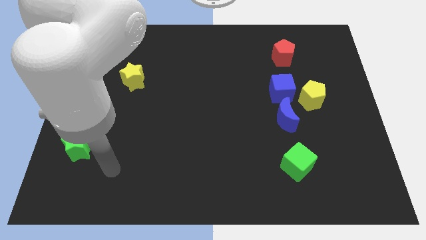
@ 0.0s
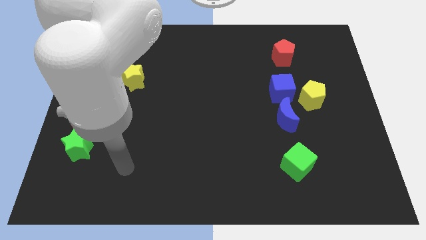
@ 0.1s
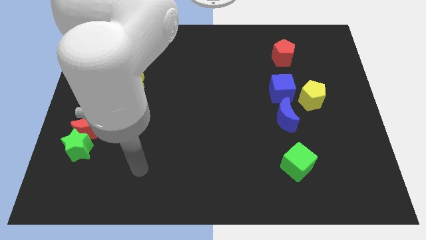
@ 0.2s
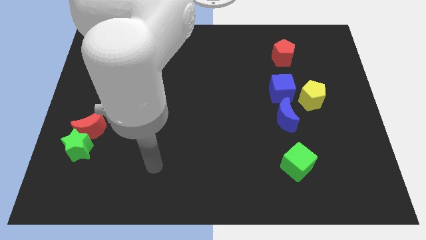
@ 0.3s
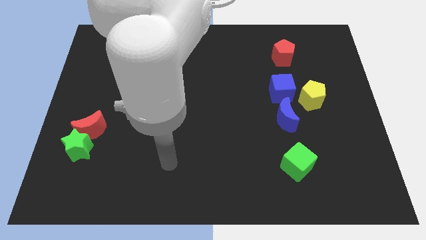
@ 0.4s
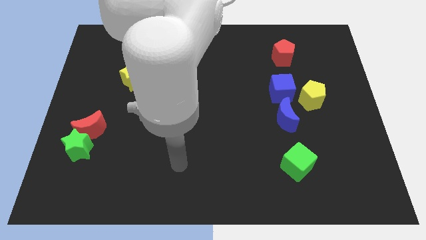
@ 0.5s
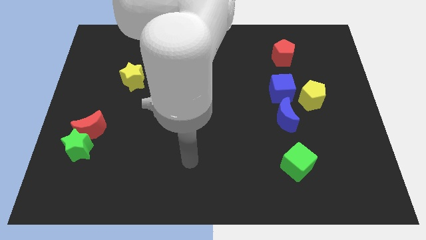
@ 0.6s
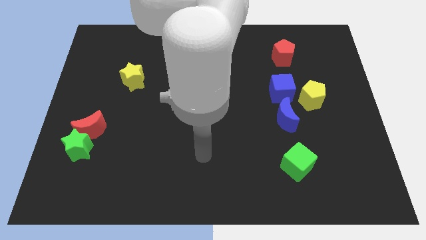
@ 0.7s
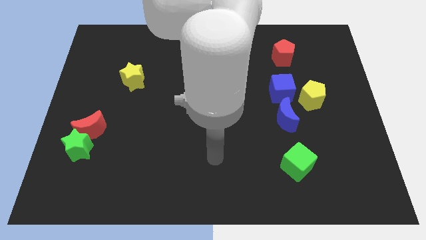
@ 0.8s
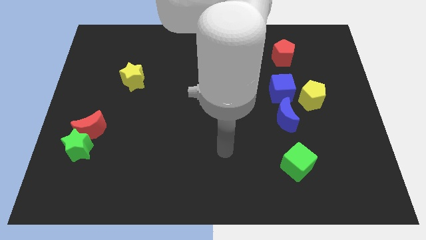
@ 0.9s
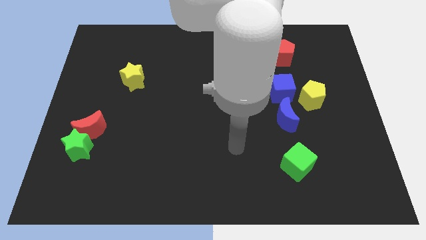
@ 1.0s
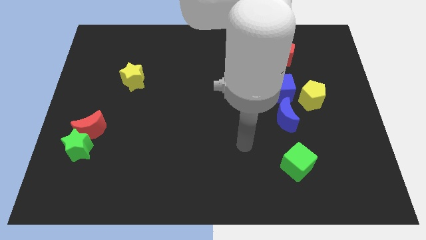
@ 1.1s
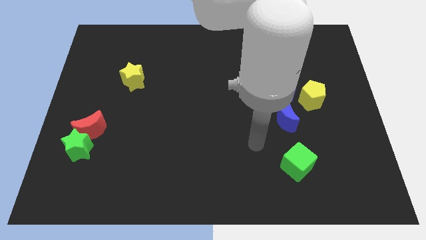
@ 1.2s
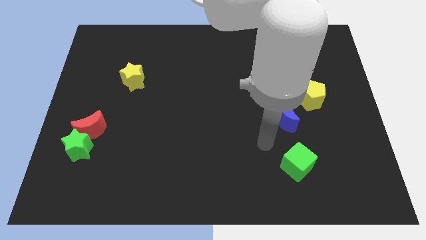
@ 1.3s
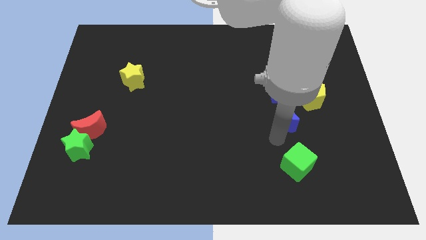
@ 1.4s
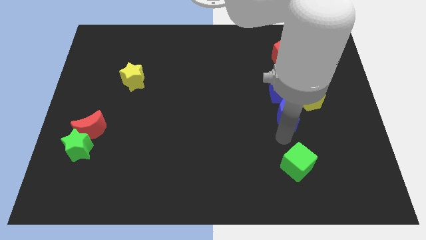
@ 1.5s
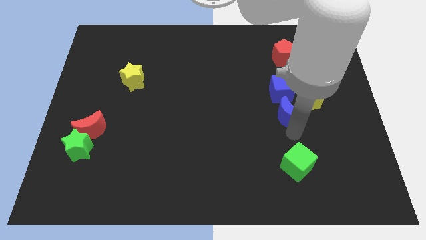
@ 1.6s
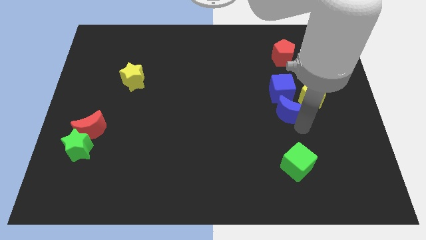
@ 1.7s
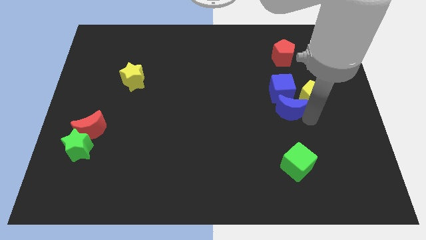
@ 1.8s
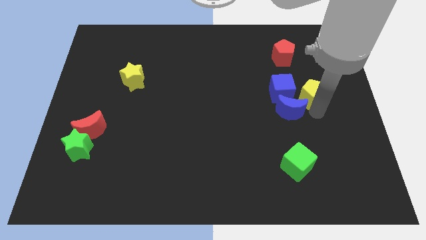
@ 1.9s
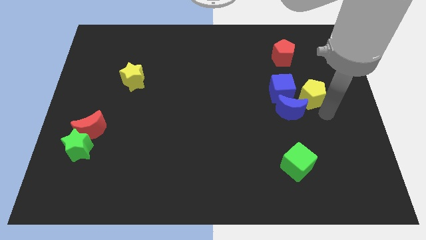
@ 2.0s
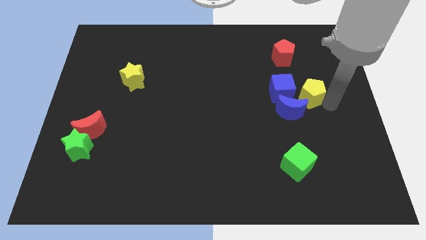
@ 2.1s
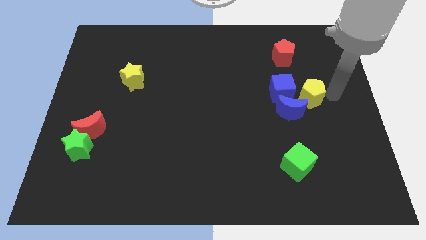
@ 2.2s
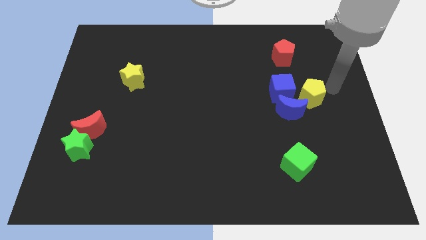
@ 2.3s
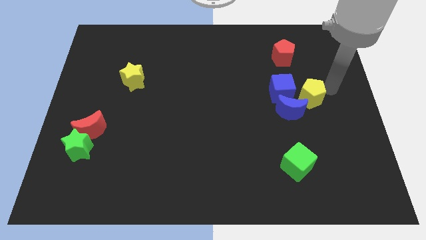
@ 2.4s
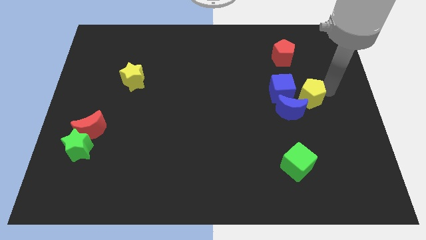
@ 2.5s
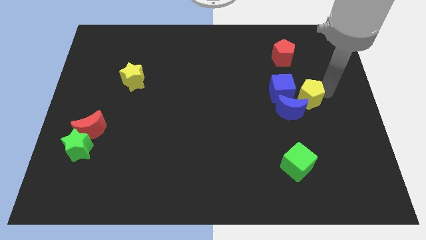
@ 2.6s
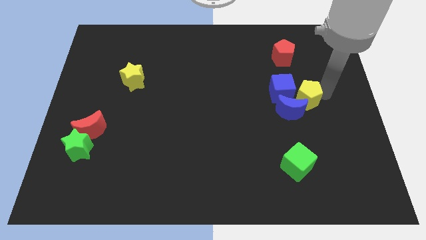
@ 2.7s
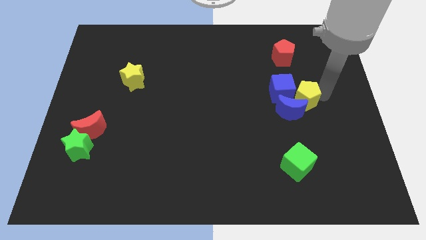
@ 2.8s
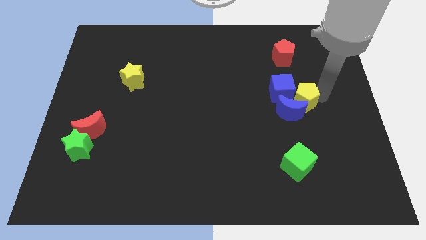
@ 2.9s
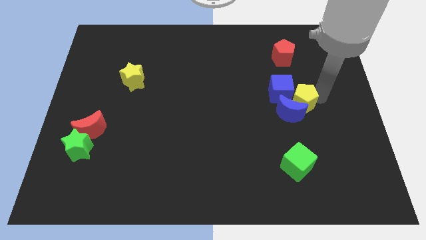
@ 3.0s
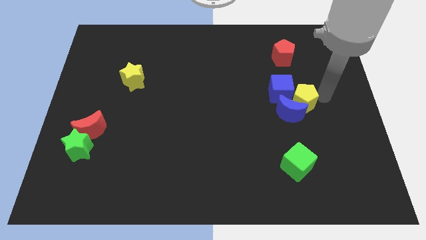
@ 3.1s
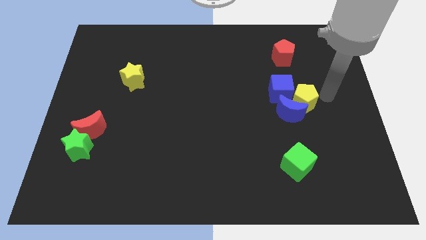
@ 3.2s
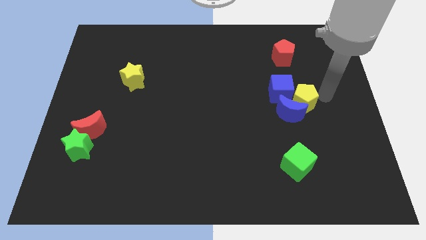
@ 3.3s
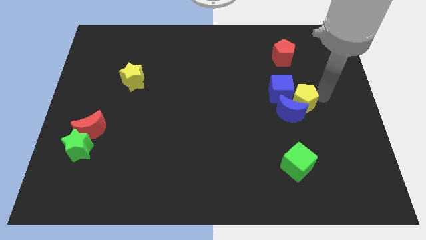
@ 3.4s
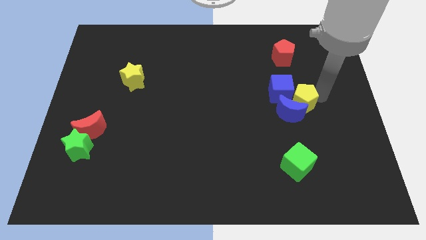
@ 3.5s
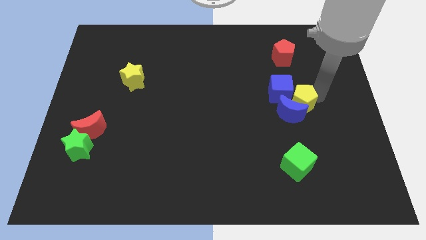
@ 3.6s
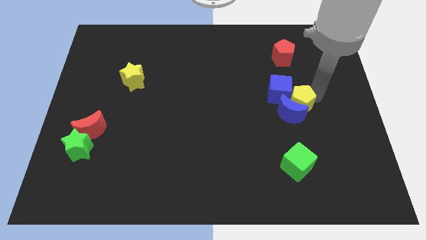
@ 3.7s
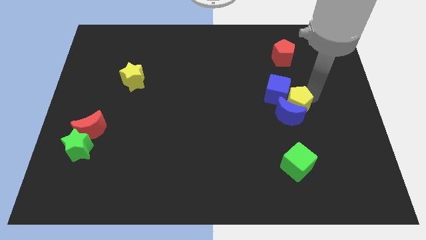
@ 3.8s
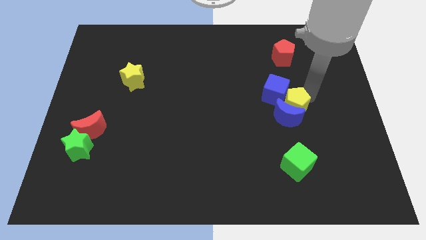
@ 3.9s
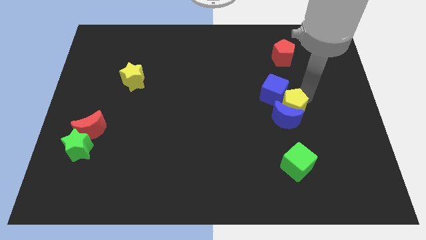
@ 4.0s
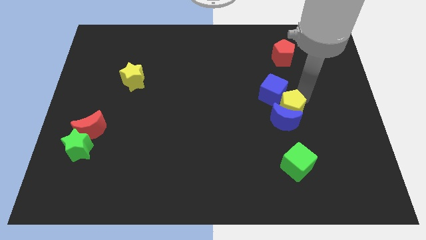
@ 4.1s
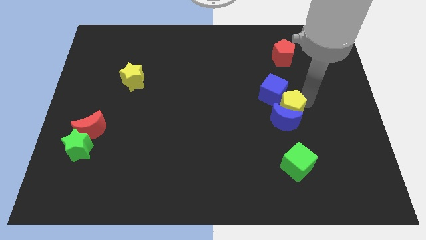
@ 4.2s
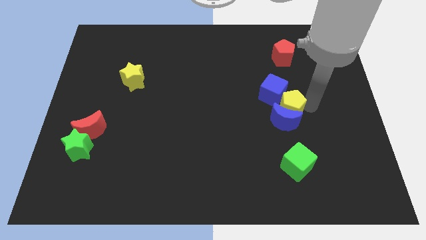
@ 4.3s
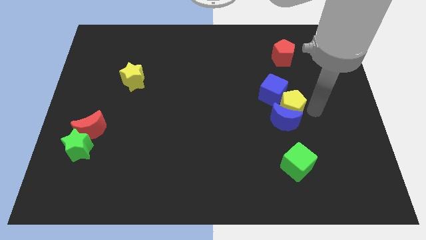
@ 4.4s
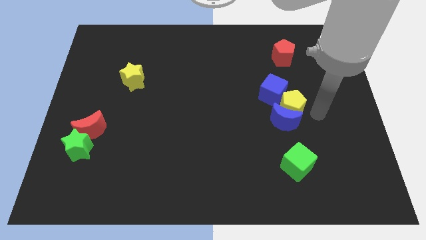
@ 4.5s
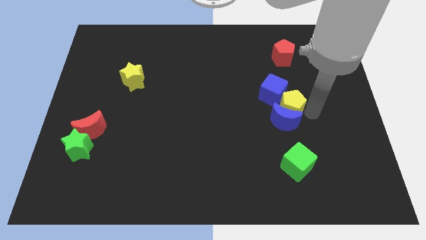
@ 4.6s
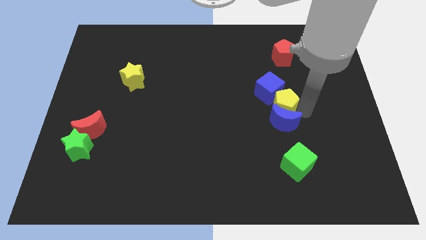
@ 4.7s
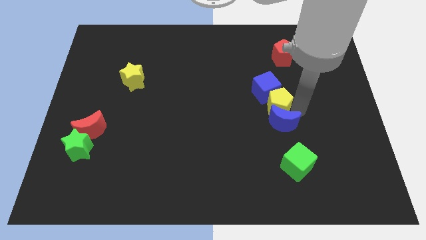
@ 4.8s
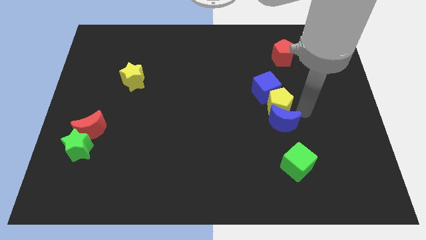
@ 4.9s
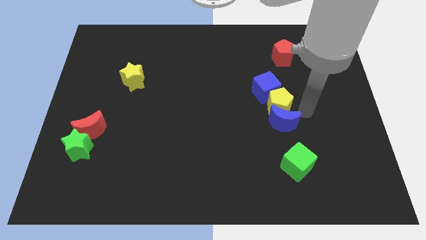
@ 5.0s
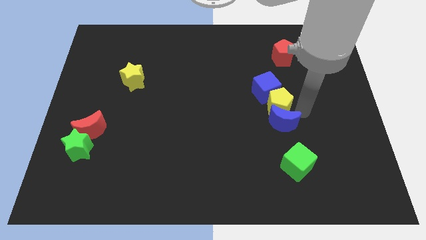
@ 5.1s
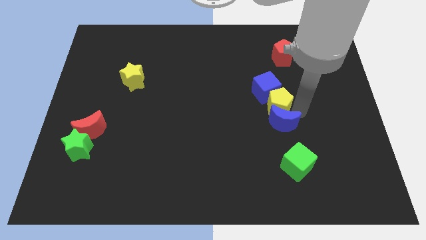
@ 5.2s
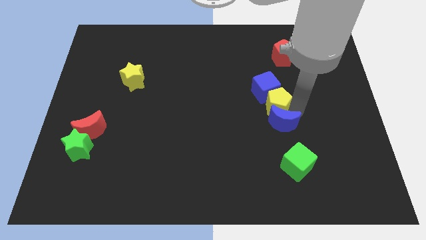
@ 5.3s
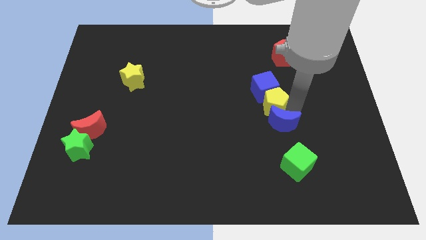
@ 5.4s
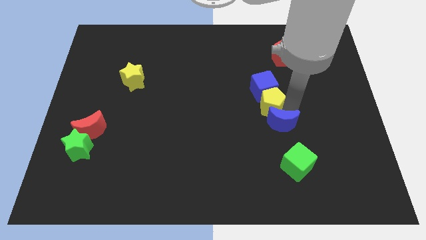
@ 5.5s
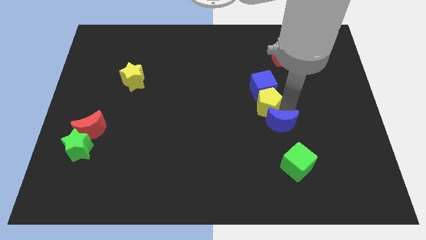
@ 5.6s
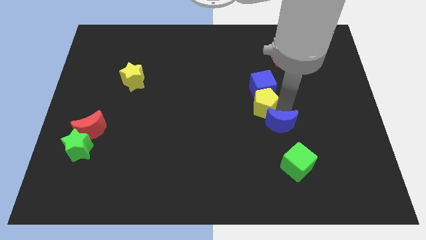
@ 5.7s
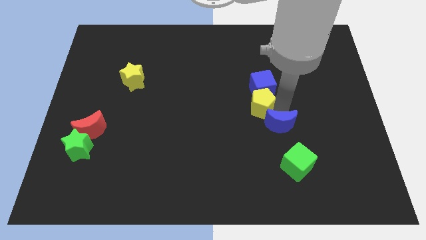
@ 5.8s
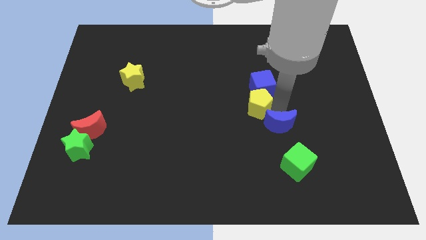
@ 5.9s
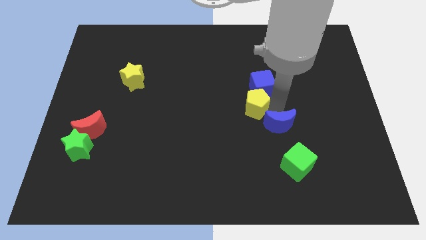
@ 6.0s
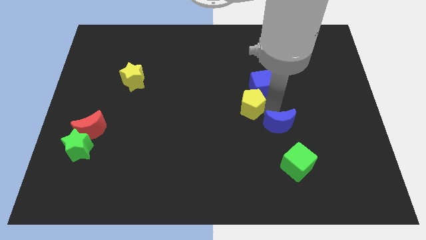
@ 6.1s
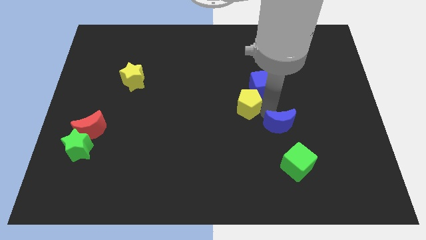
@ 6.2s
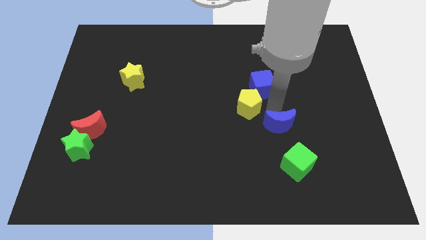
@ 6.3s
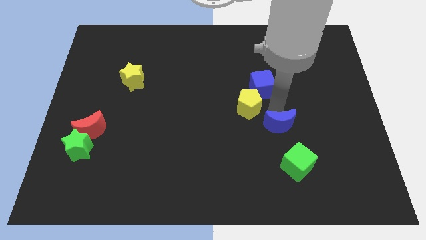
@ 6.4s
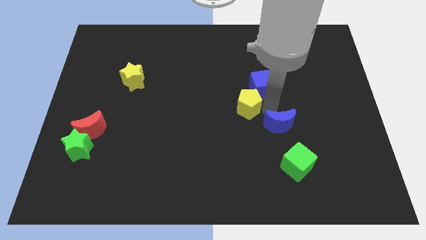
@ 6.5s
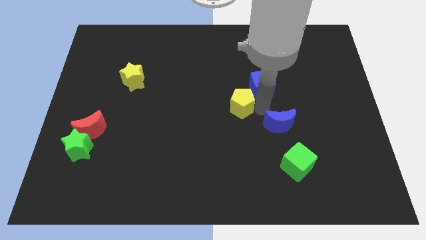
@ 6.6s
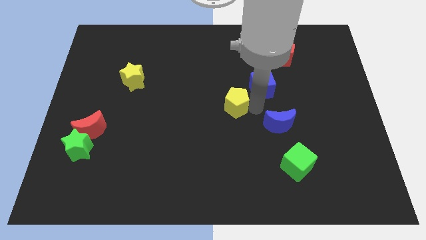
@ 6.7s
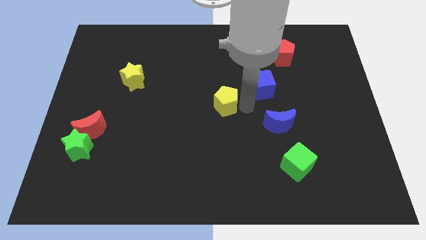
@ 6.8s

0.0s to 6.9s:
slide the yellow pentagon to the left

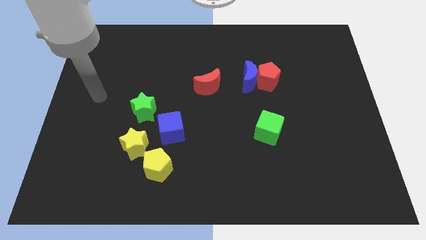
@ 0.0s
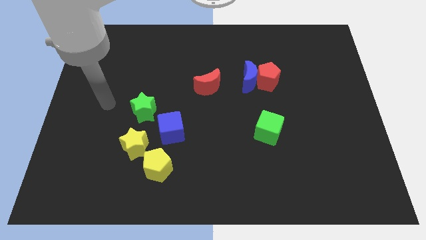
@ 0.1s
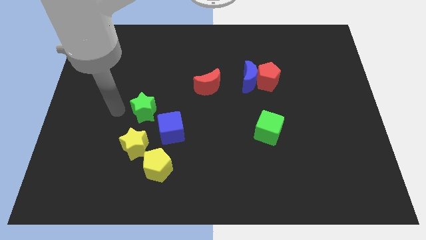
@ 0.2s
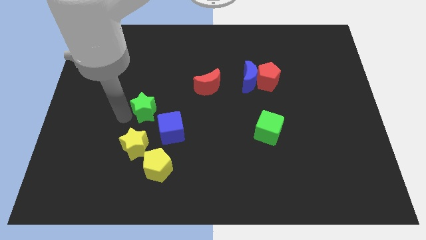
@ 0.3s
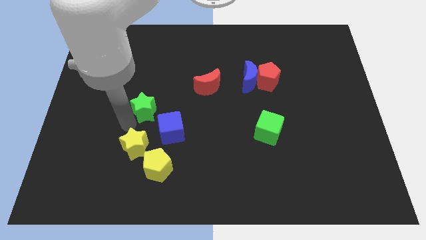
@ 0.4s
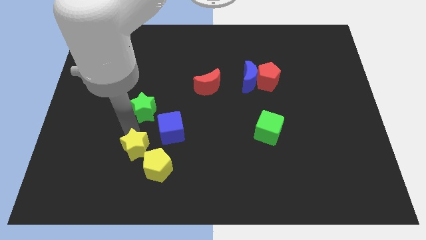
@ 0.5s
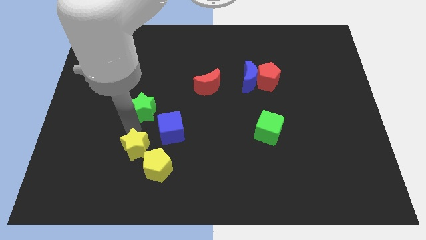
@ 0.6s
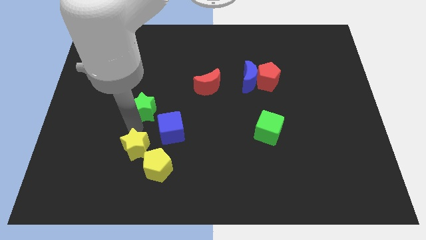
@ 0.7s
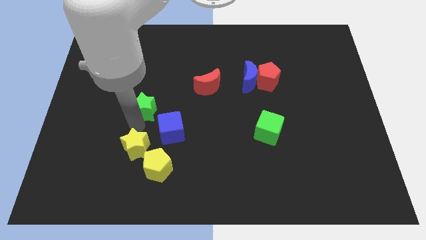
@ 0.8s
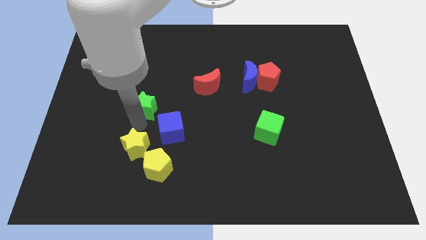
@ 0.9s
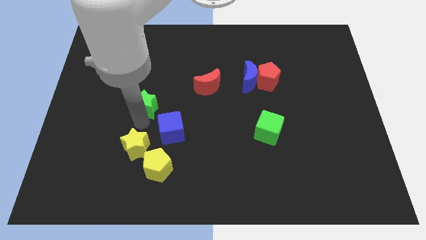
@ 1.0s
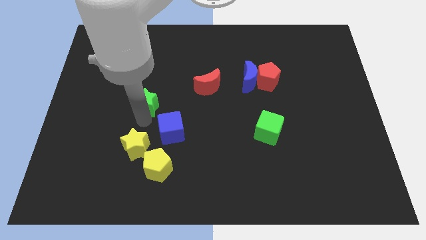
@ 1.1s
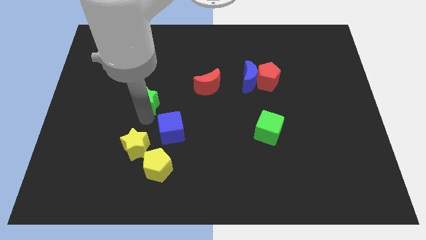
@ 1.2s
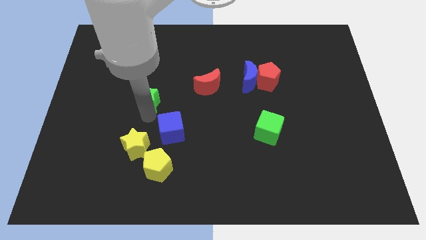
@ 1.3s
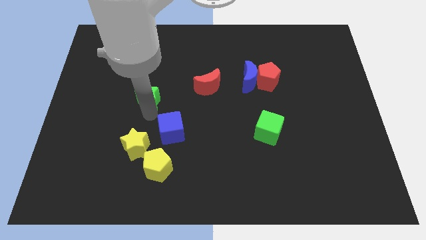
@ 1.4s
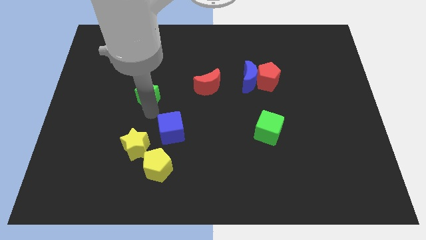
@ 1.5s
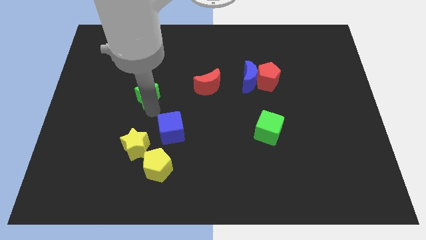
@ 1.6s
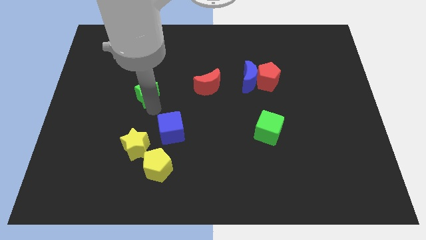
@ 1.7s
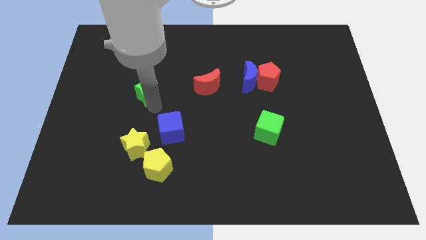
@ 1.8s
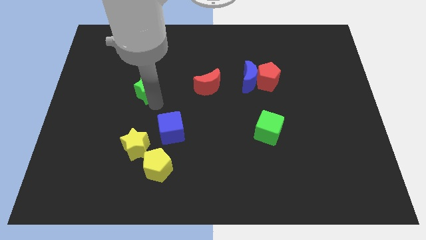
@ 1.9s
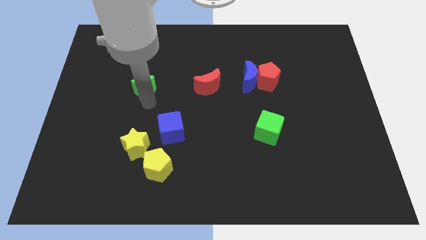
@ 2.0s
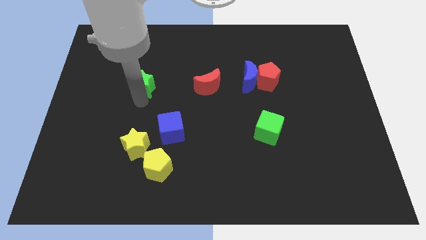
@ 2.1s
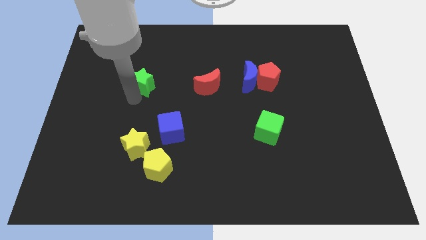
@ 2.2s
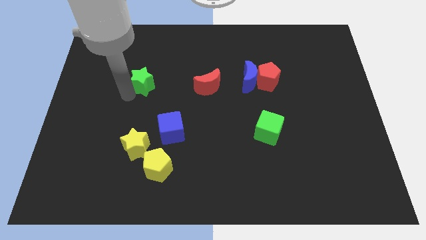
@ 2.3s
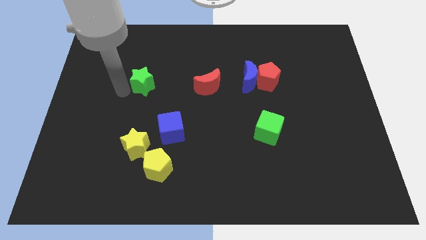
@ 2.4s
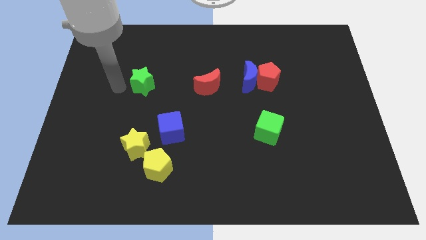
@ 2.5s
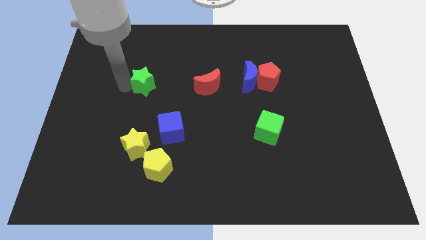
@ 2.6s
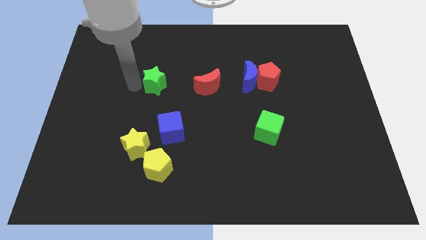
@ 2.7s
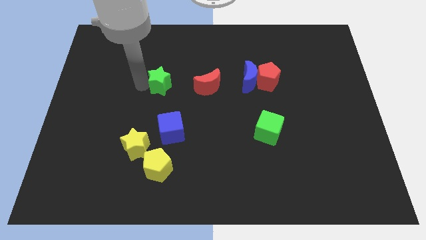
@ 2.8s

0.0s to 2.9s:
move the green star upwards and then right a bit
